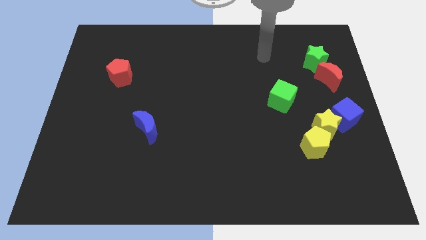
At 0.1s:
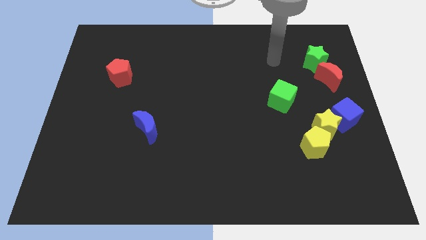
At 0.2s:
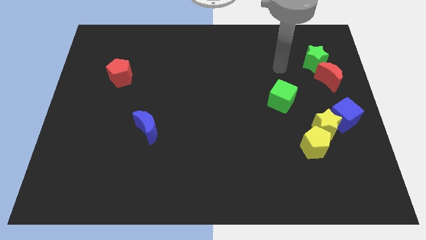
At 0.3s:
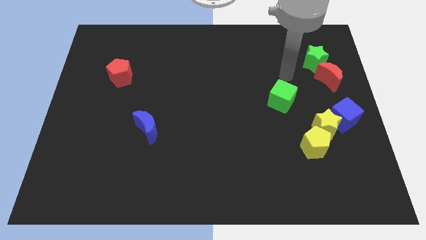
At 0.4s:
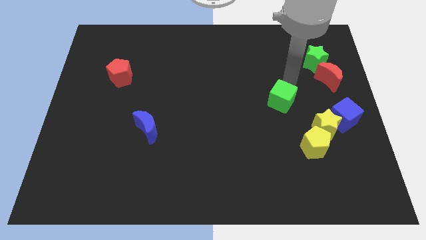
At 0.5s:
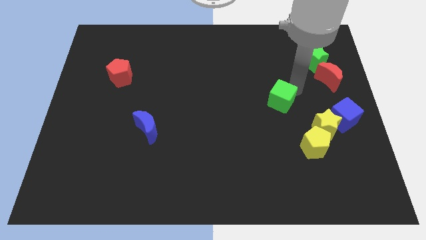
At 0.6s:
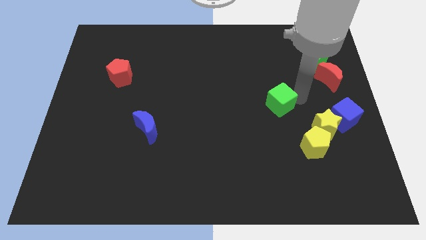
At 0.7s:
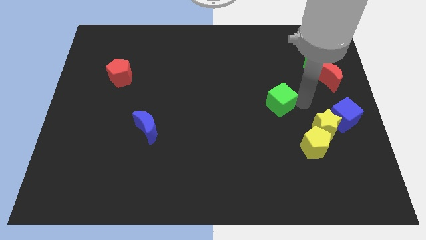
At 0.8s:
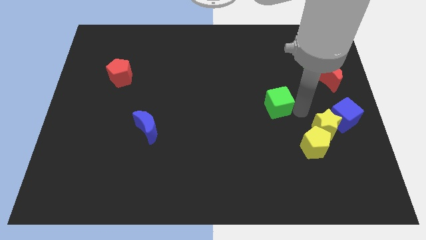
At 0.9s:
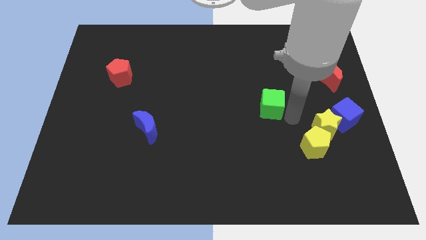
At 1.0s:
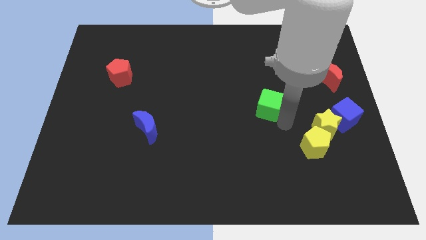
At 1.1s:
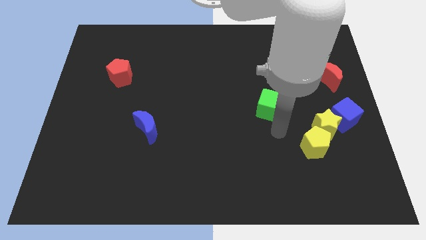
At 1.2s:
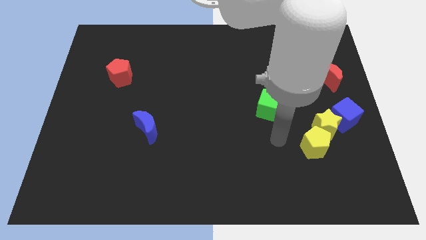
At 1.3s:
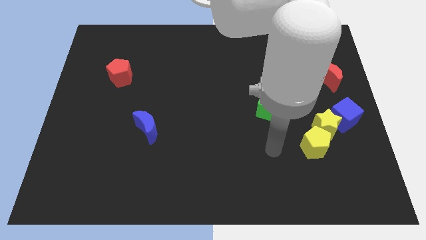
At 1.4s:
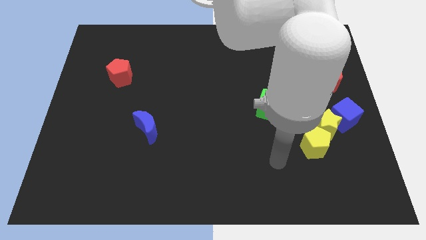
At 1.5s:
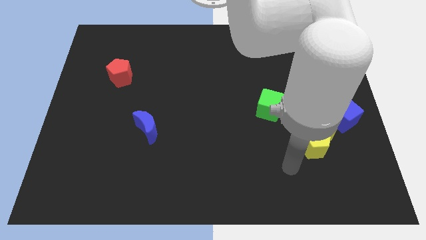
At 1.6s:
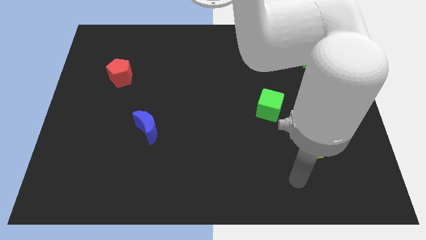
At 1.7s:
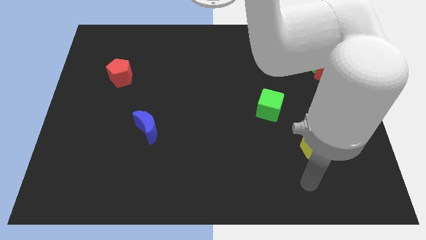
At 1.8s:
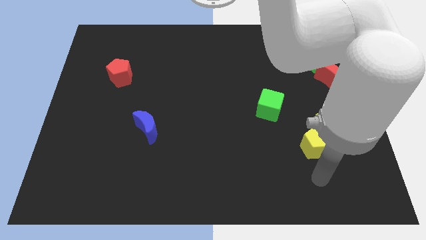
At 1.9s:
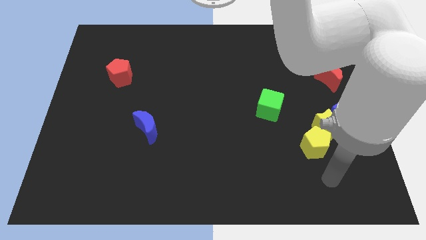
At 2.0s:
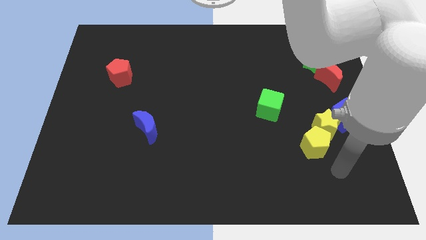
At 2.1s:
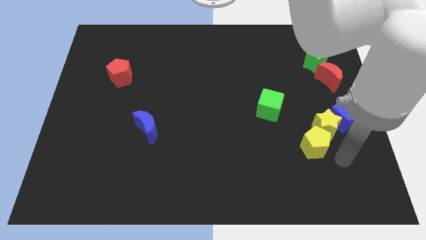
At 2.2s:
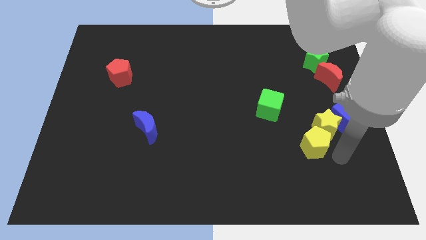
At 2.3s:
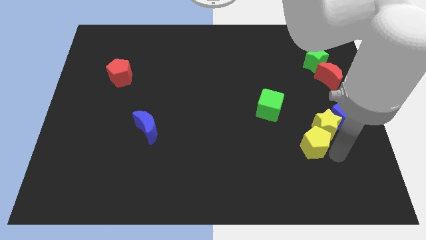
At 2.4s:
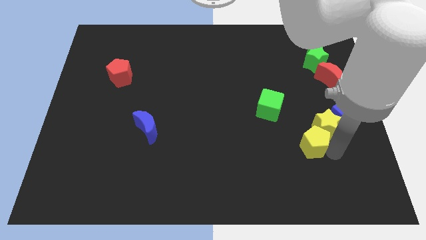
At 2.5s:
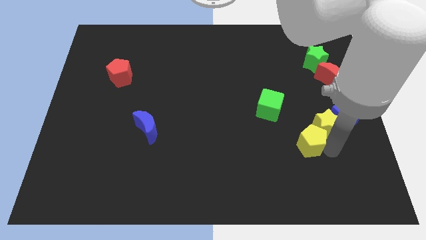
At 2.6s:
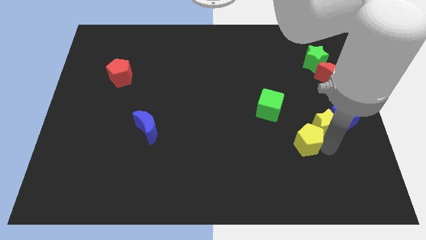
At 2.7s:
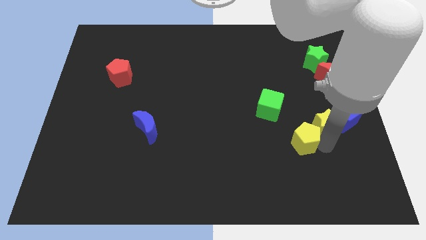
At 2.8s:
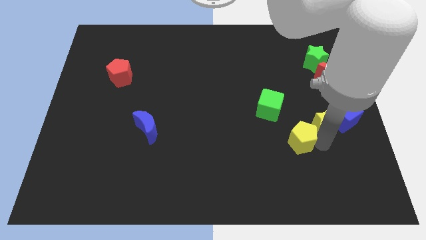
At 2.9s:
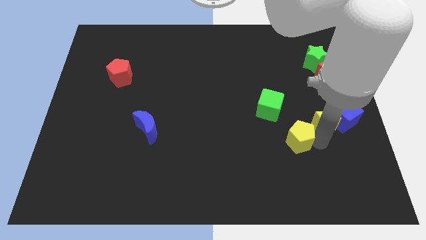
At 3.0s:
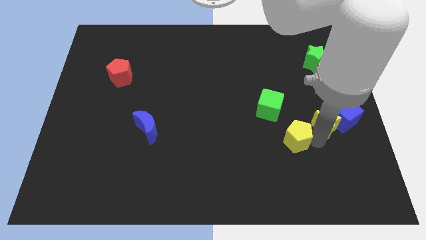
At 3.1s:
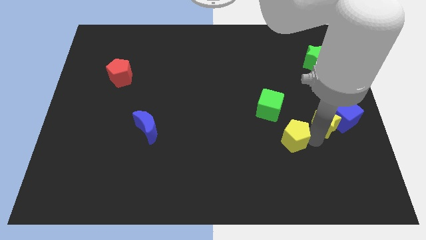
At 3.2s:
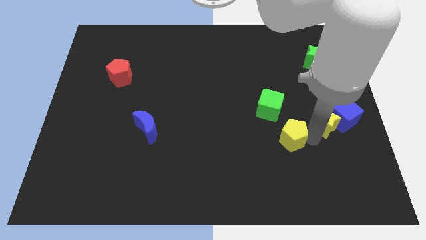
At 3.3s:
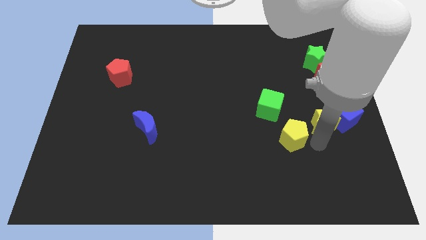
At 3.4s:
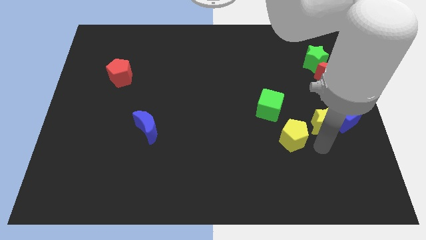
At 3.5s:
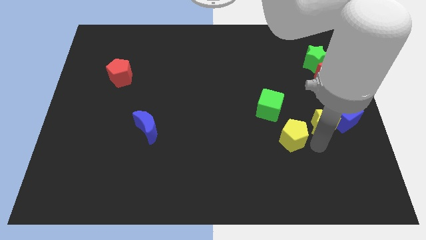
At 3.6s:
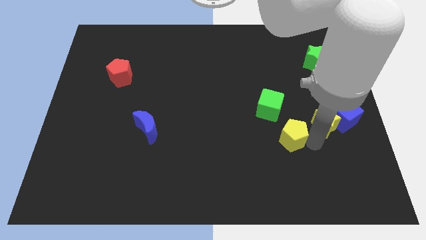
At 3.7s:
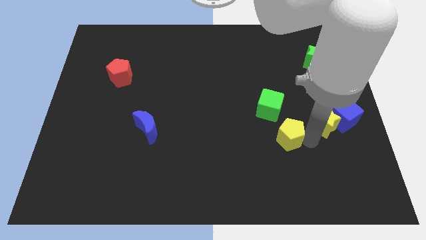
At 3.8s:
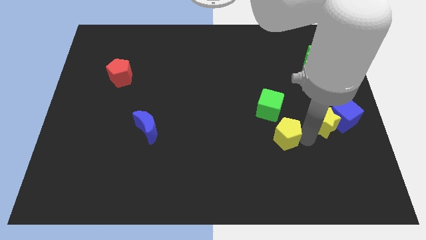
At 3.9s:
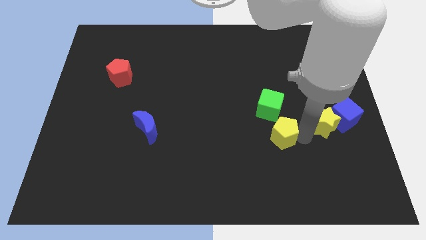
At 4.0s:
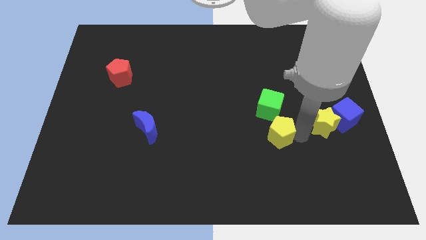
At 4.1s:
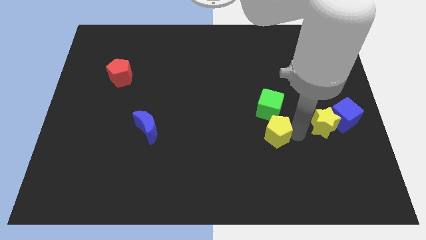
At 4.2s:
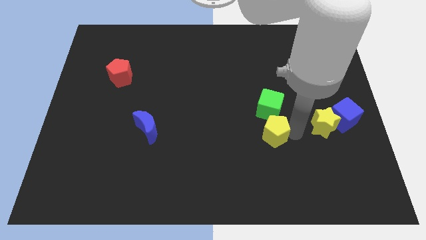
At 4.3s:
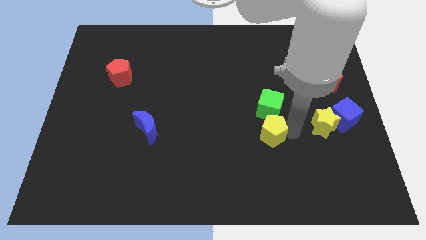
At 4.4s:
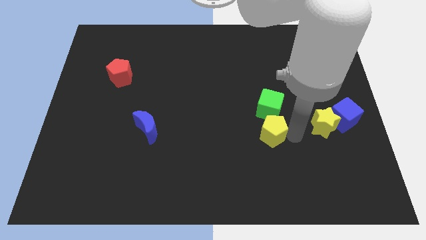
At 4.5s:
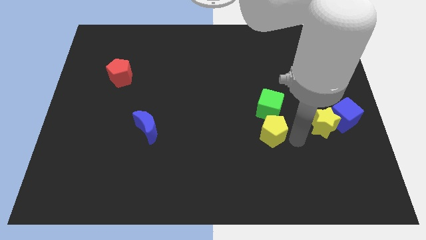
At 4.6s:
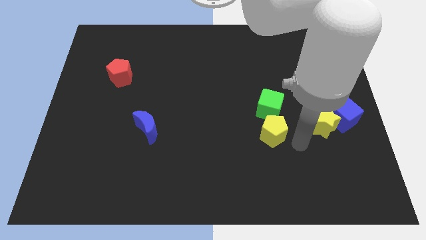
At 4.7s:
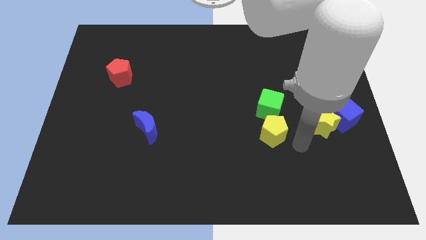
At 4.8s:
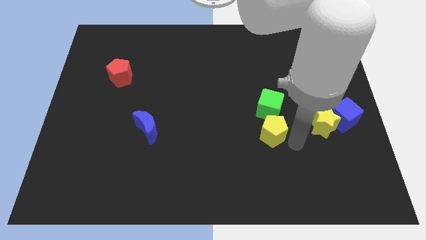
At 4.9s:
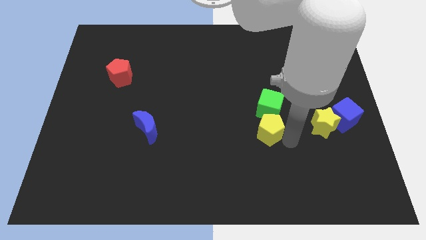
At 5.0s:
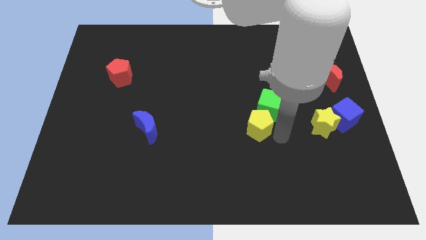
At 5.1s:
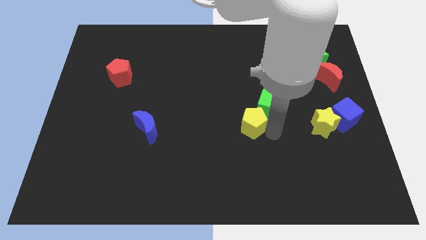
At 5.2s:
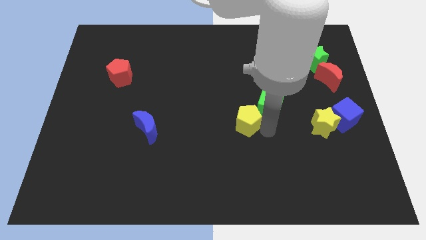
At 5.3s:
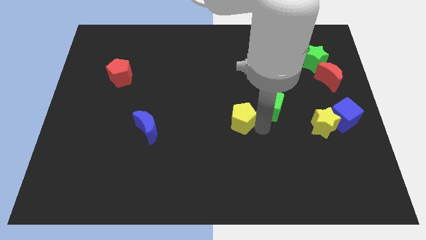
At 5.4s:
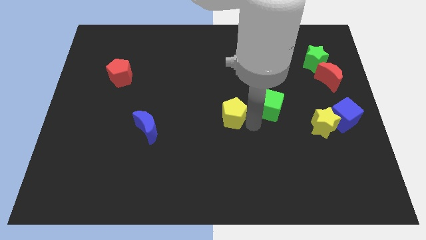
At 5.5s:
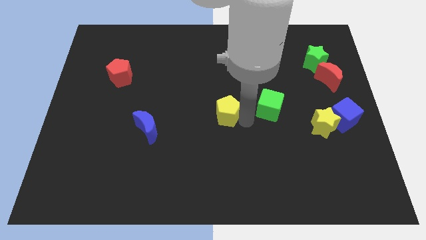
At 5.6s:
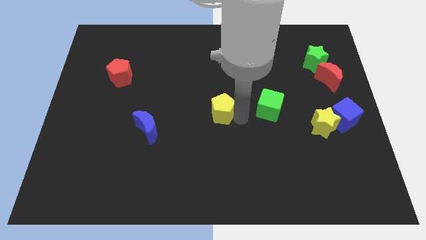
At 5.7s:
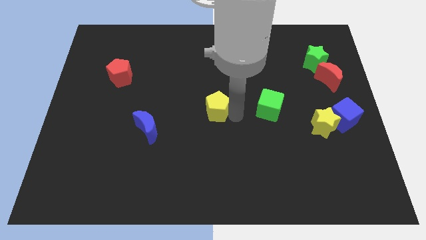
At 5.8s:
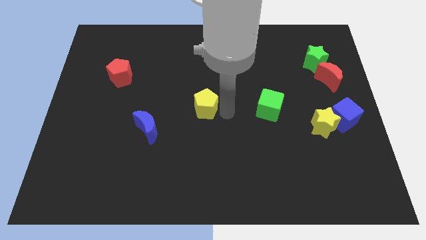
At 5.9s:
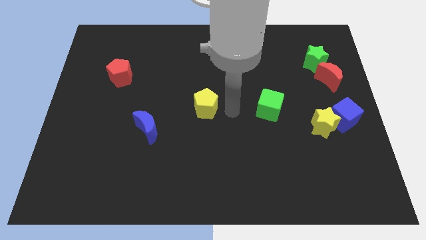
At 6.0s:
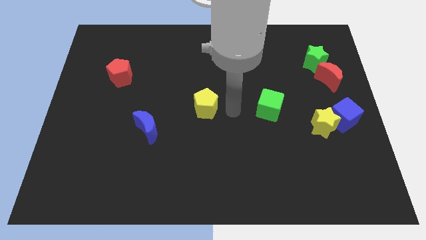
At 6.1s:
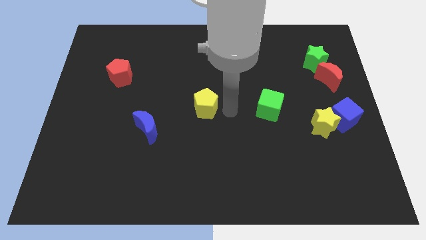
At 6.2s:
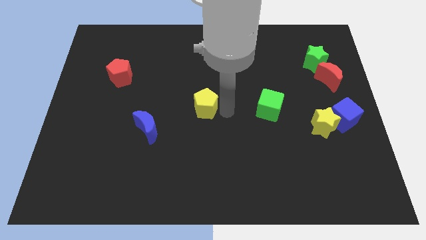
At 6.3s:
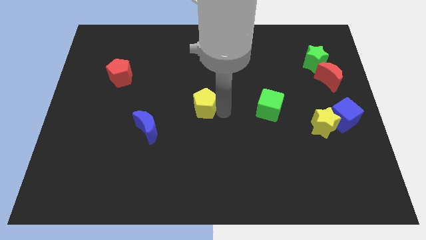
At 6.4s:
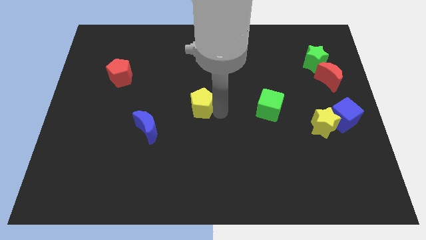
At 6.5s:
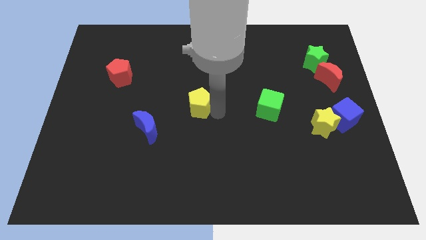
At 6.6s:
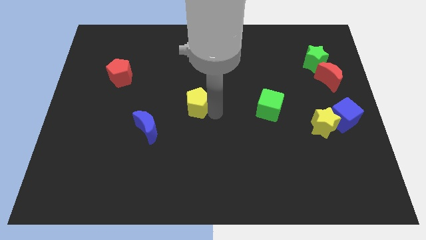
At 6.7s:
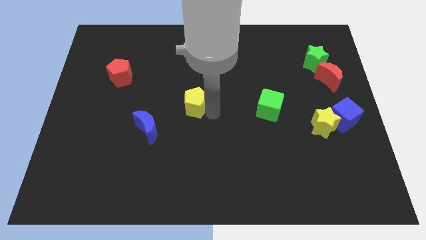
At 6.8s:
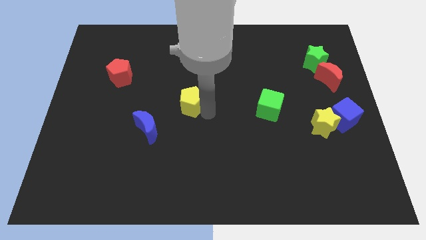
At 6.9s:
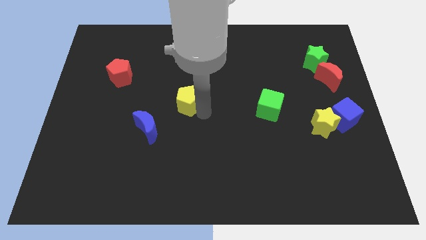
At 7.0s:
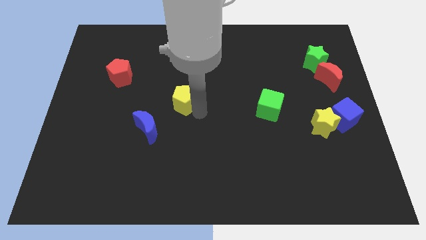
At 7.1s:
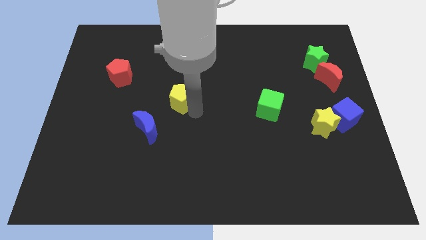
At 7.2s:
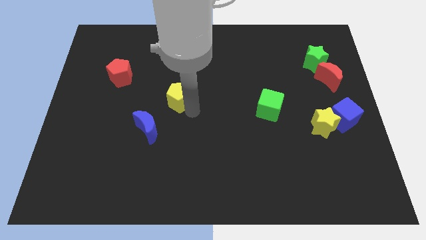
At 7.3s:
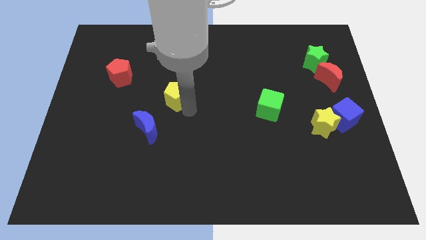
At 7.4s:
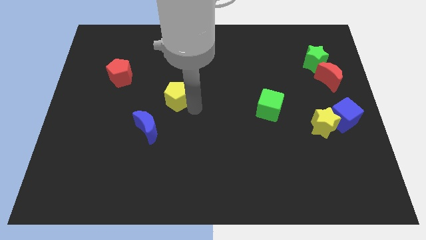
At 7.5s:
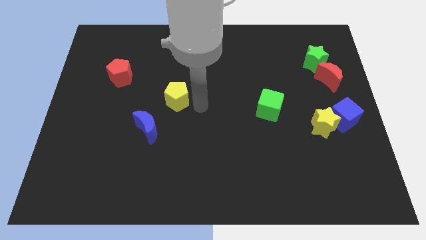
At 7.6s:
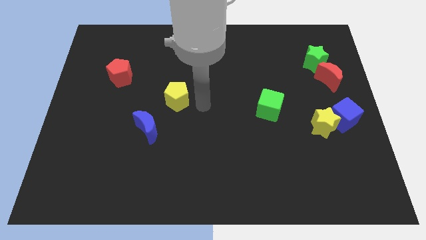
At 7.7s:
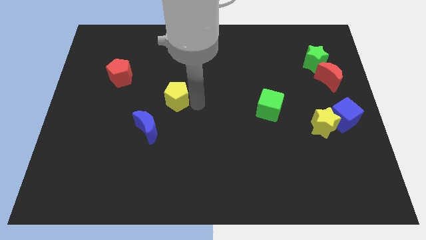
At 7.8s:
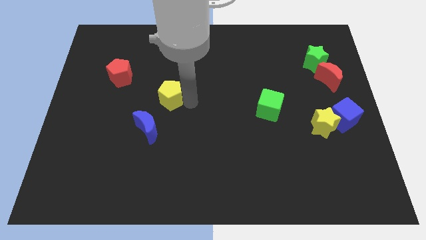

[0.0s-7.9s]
put the yellow pentagon to the top of the blue moon
